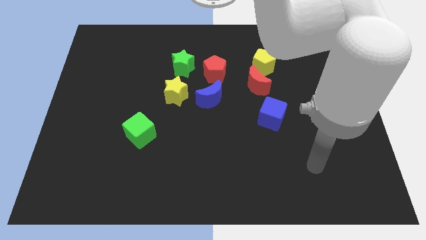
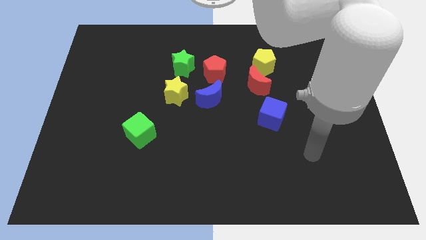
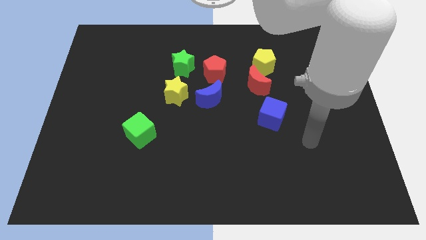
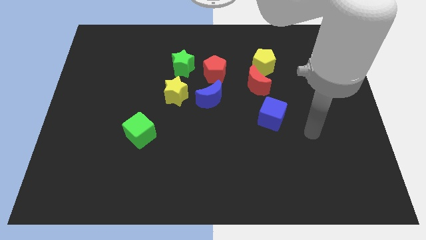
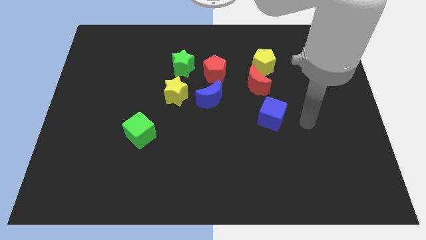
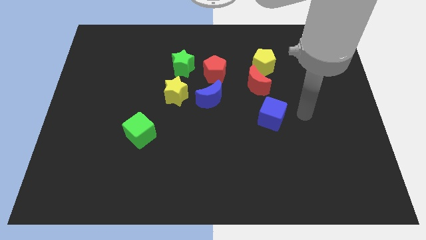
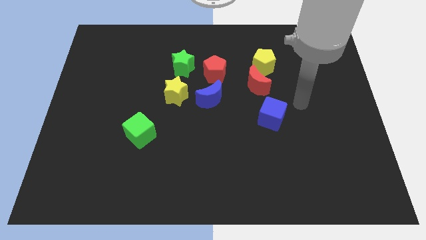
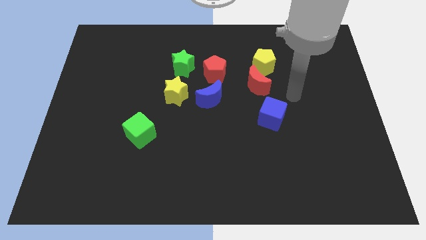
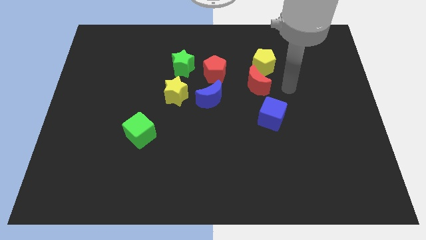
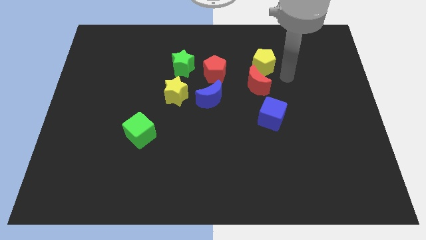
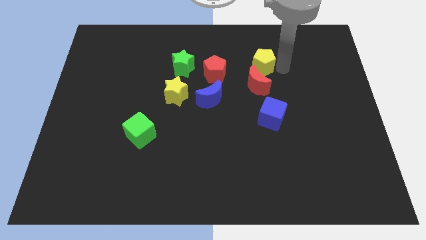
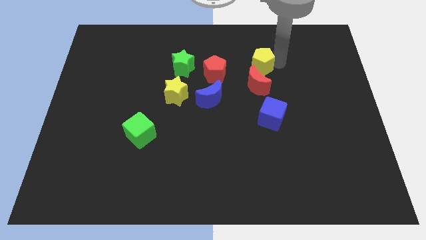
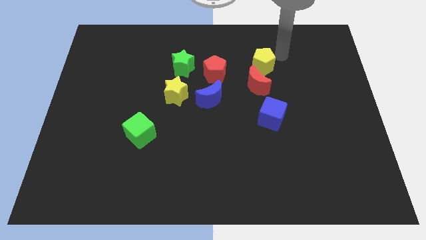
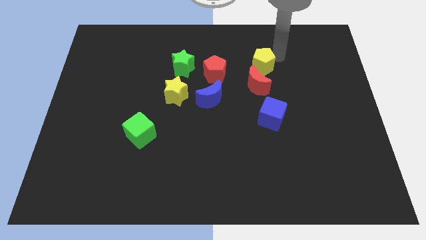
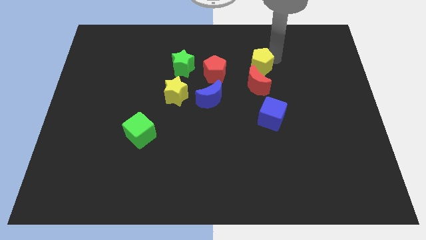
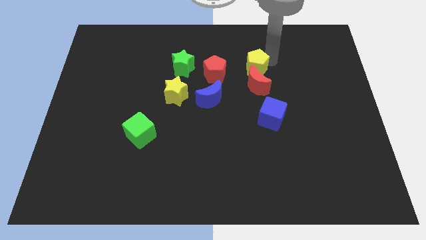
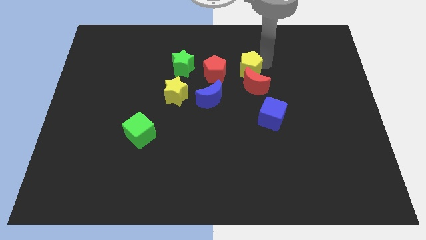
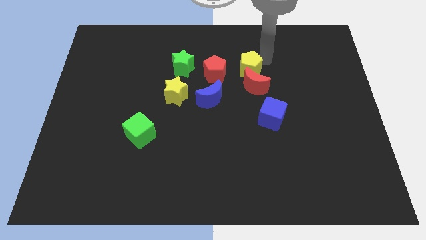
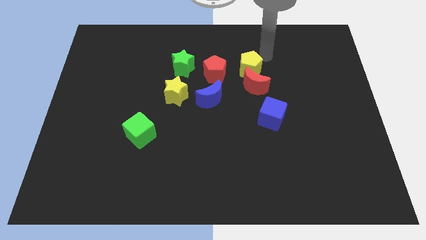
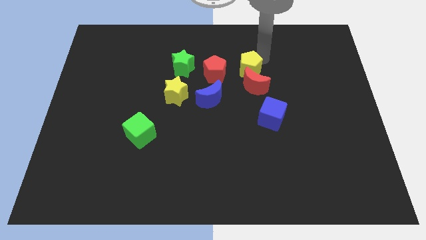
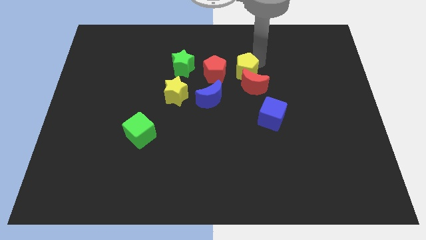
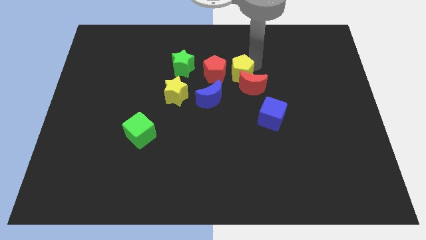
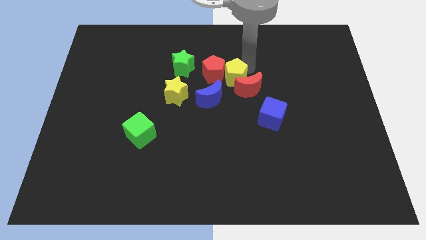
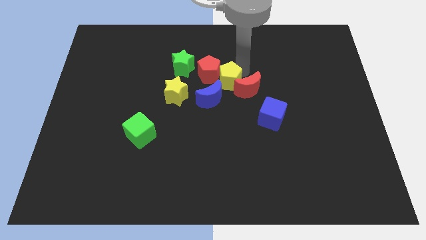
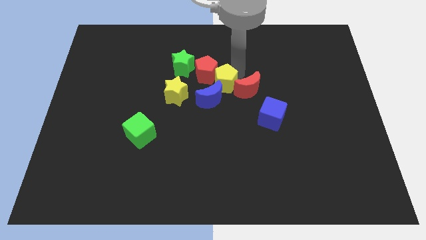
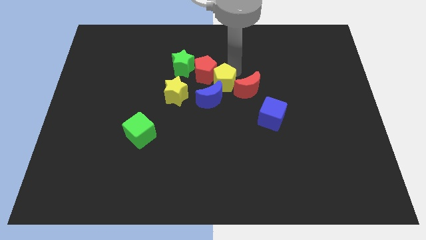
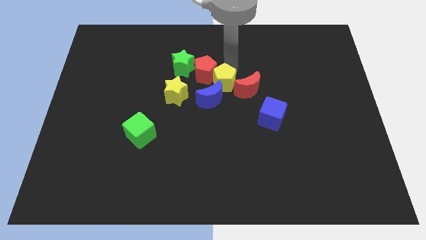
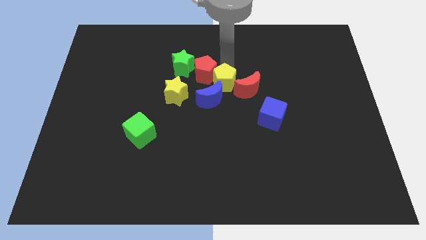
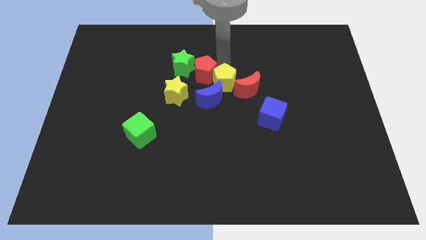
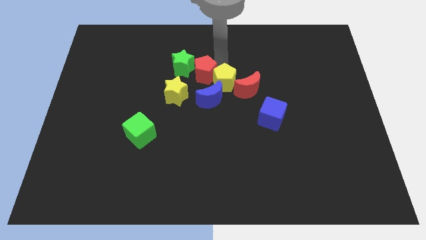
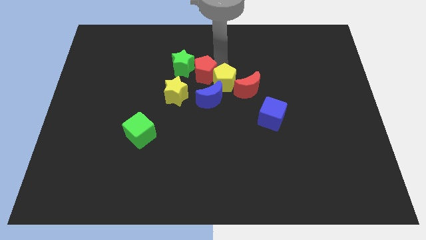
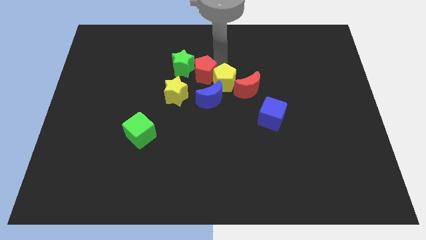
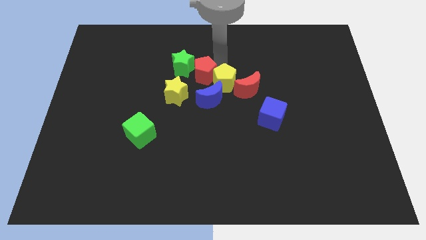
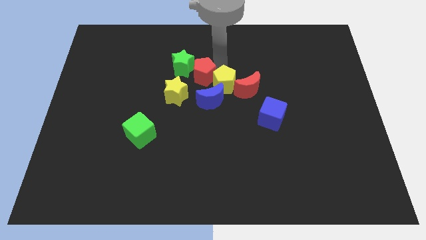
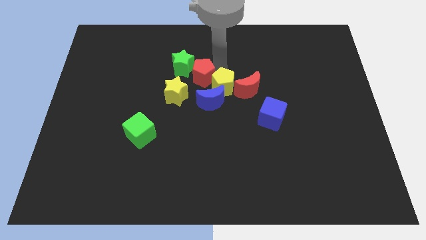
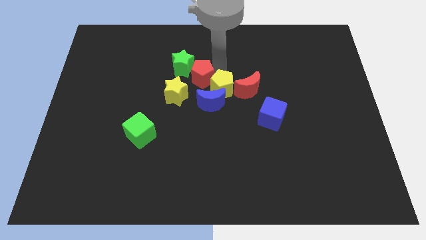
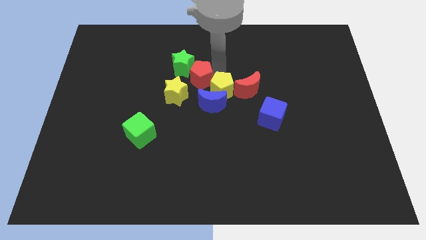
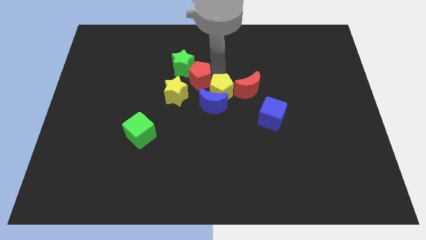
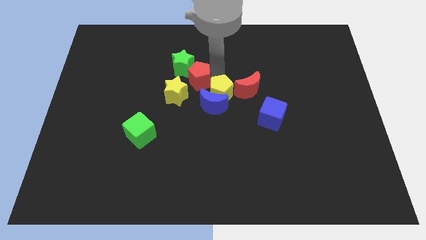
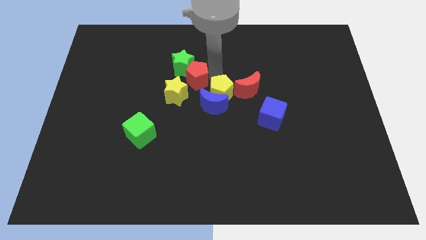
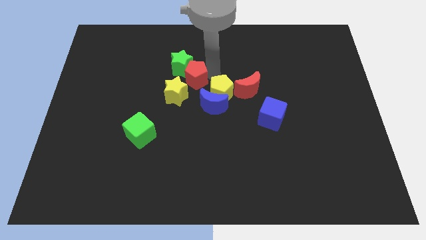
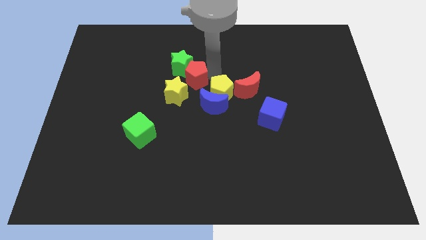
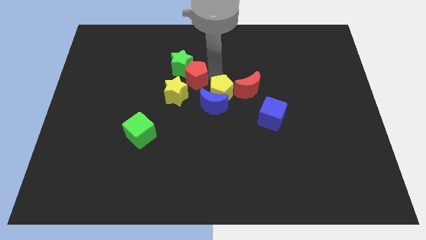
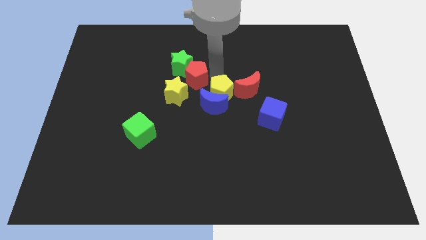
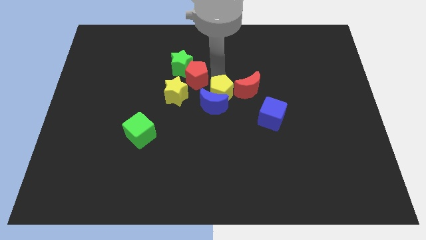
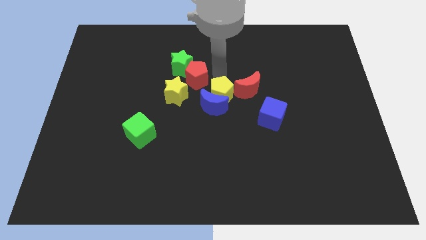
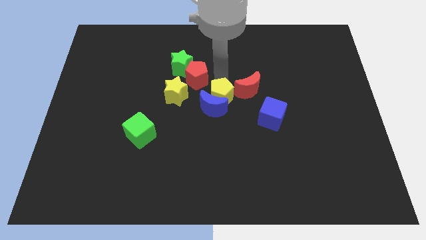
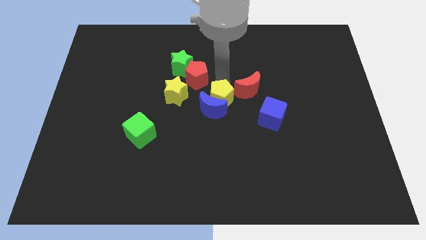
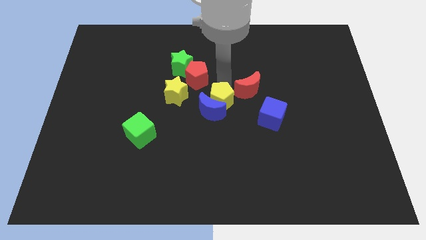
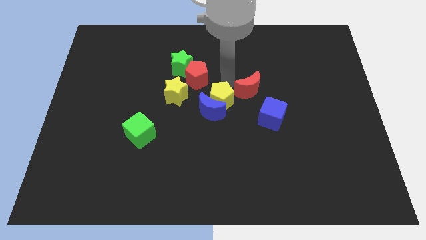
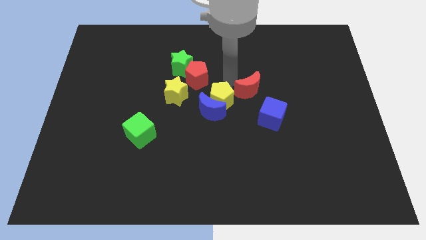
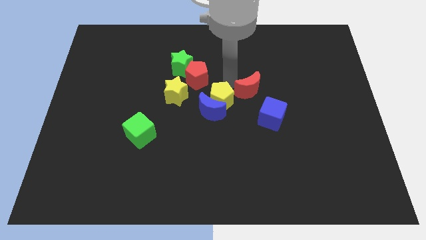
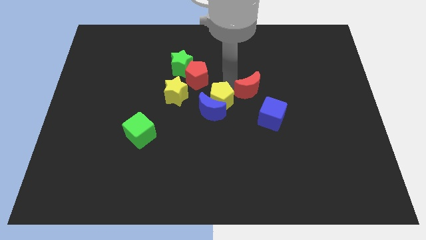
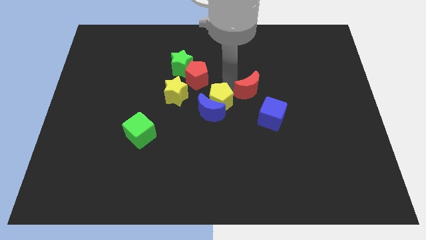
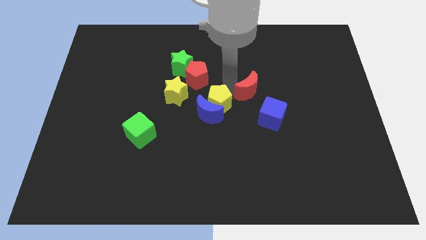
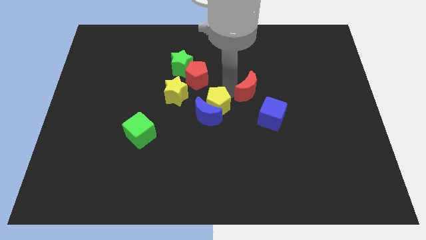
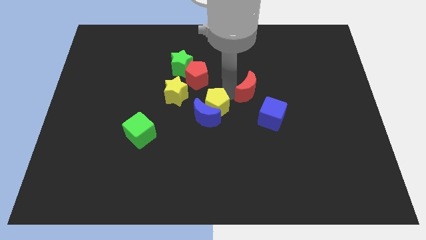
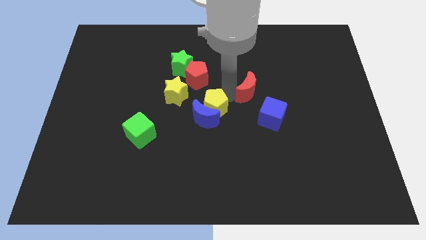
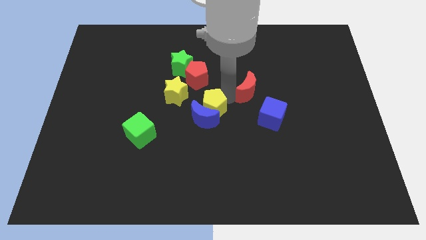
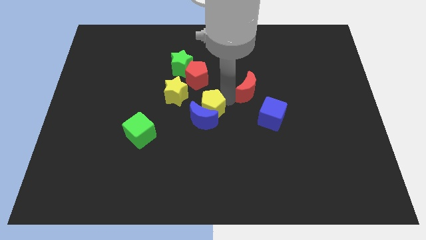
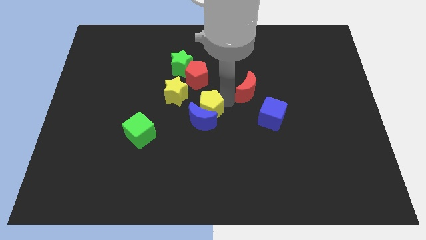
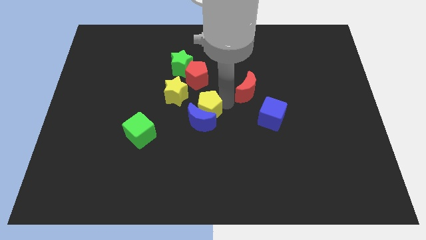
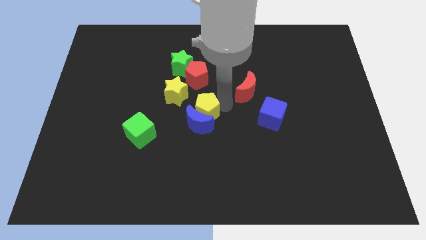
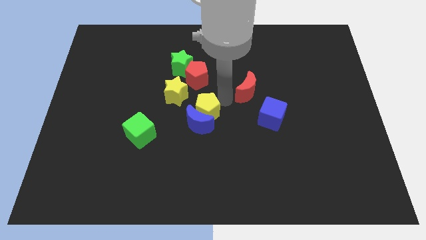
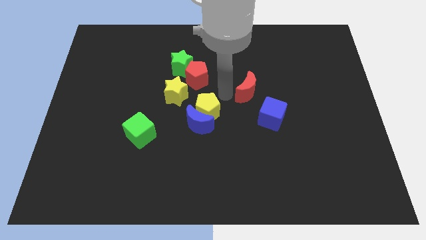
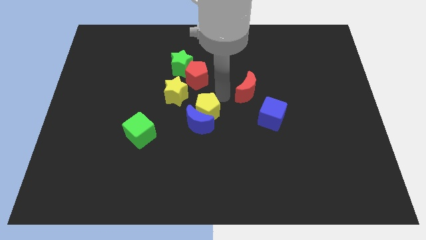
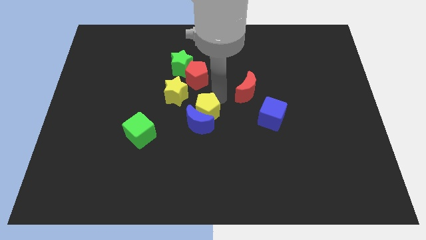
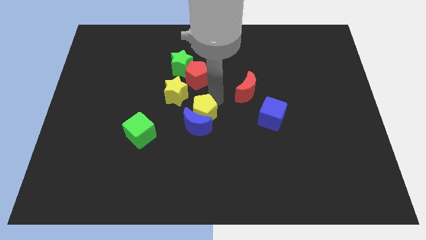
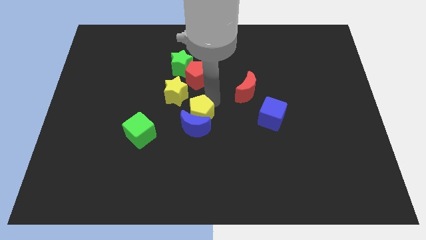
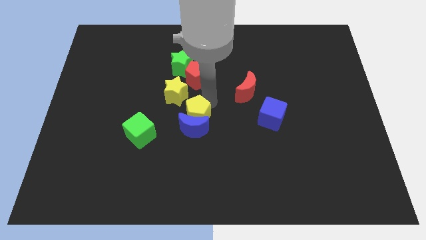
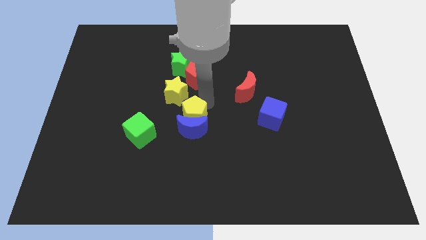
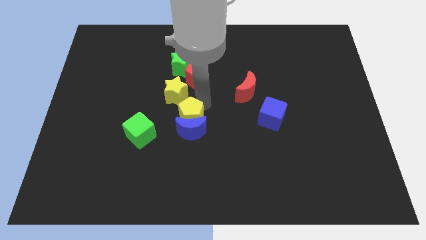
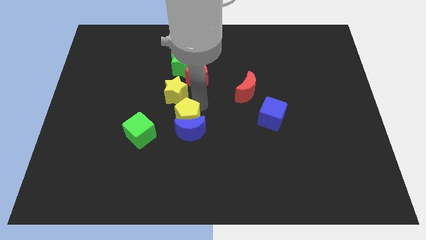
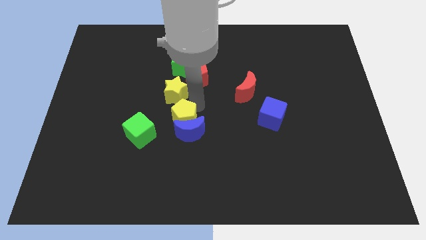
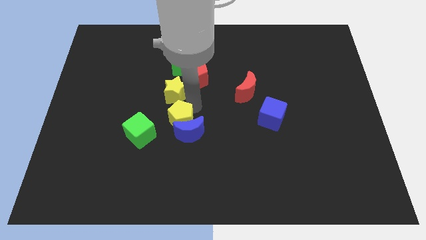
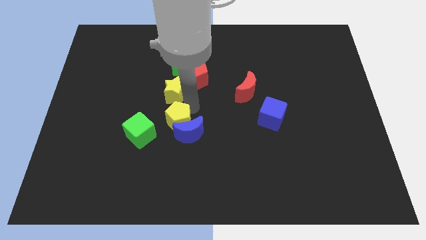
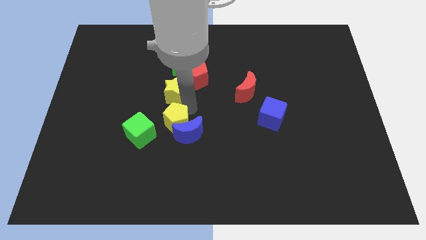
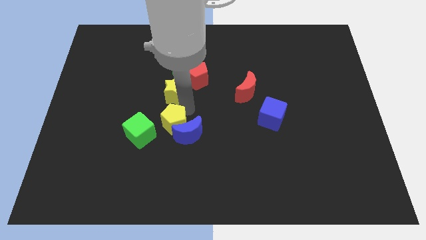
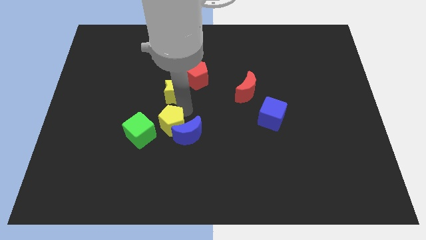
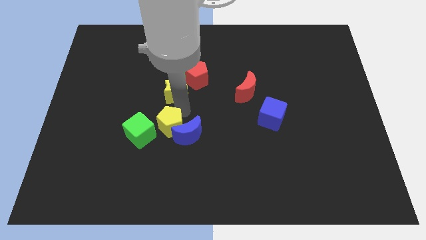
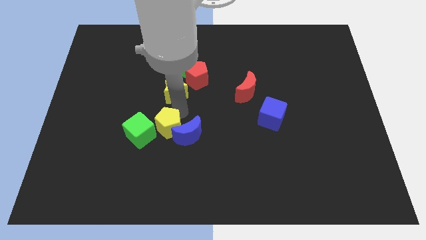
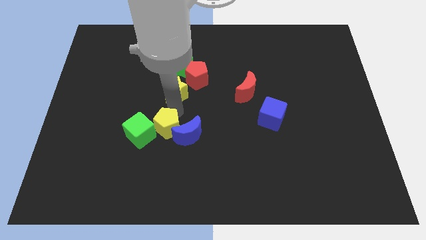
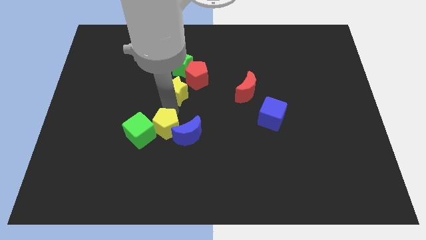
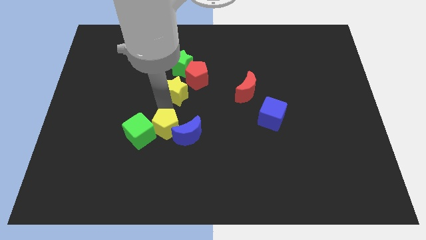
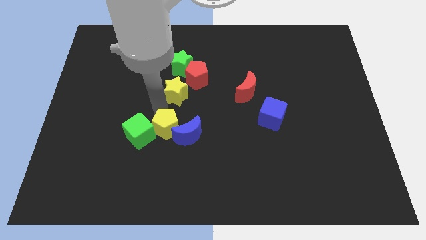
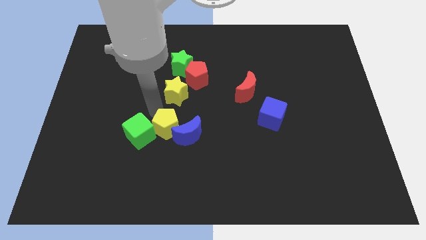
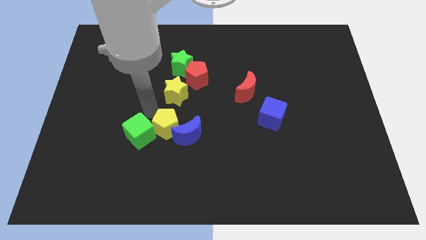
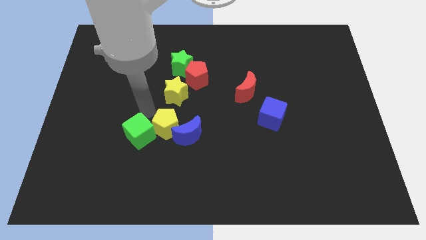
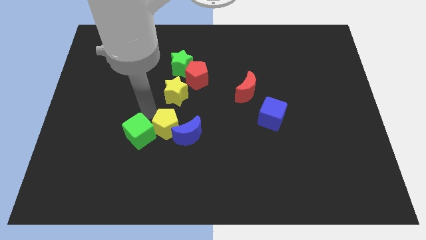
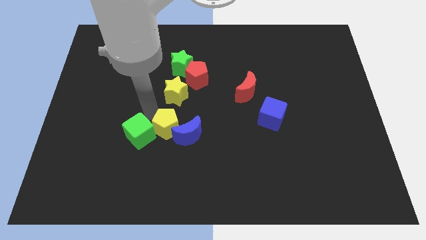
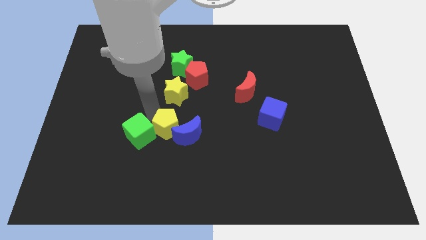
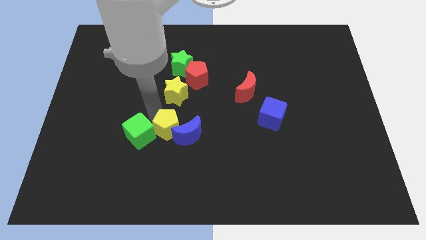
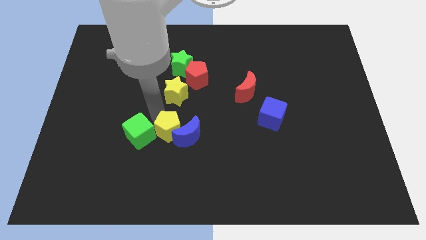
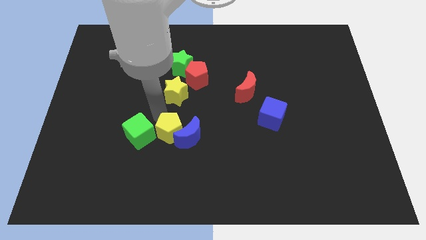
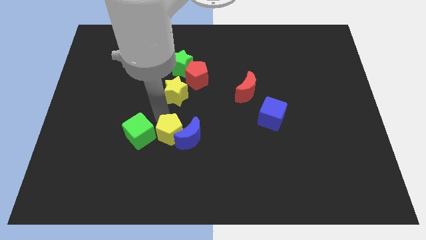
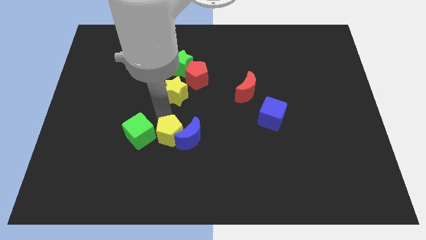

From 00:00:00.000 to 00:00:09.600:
slide the yellow pentagon diagonally down and to the right of the green cube
